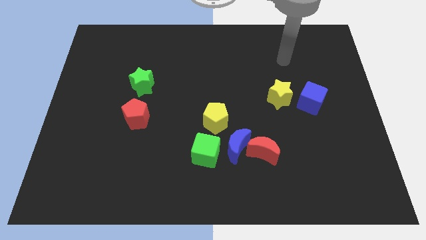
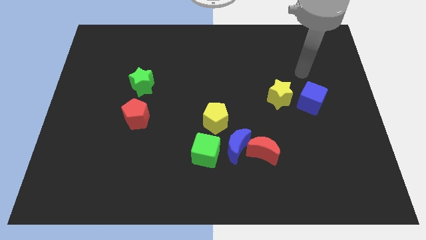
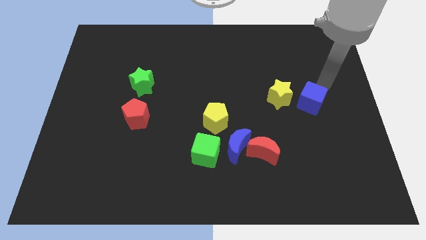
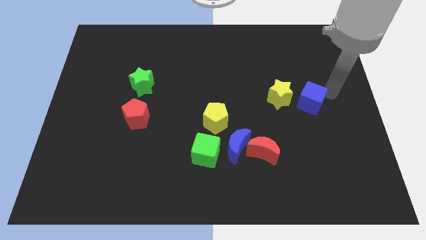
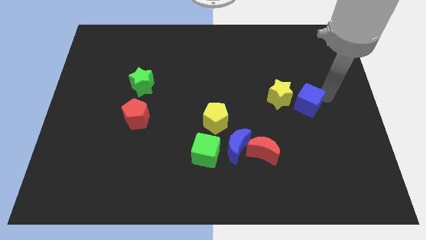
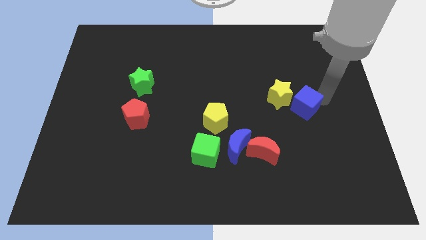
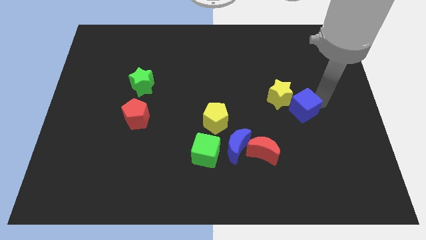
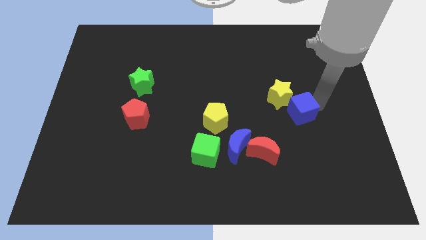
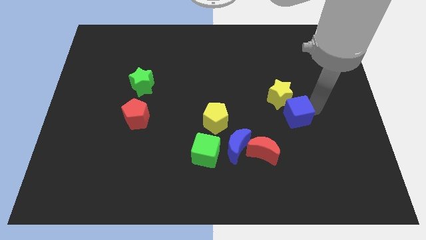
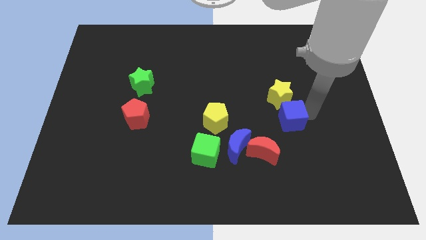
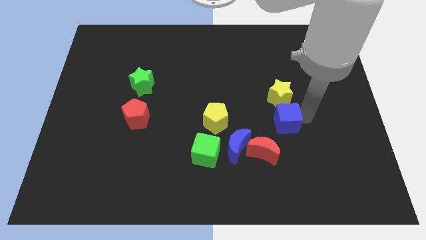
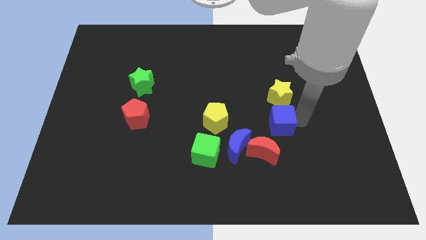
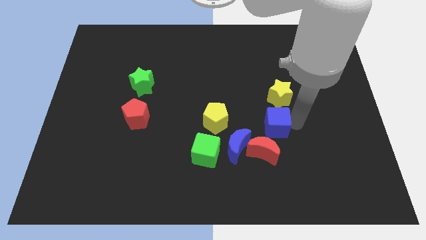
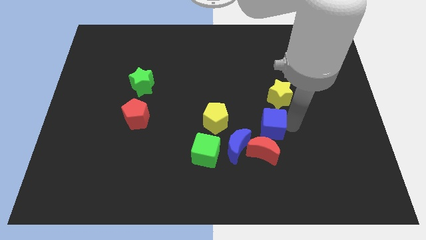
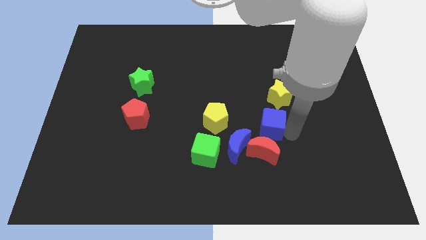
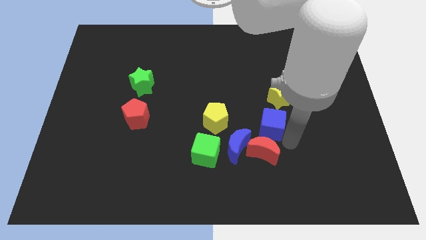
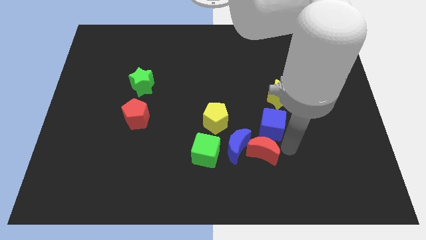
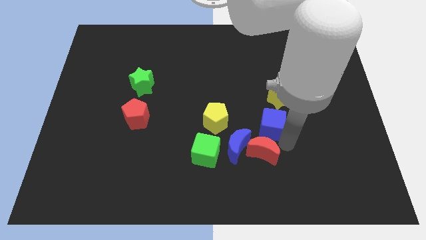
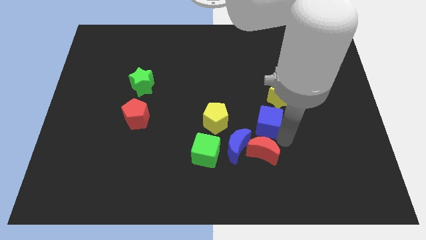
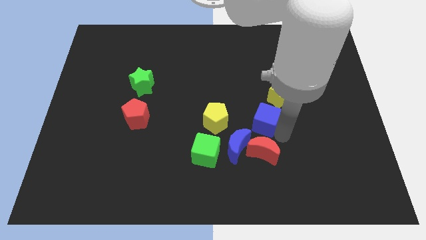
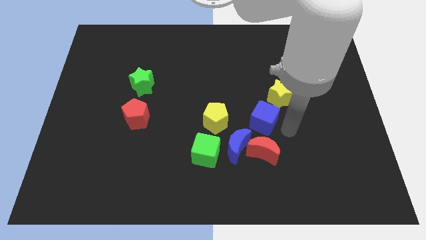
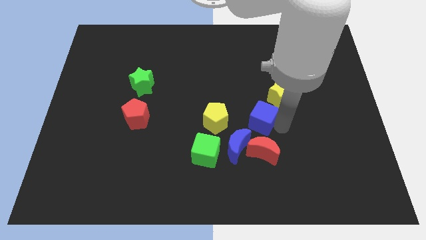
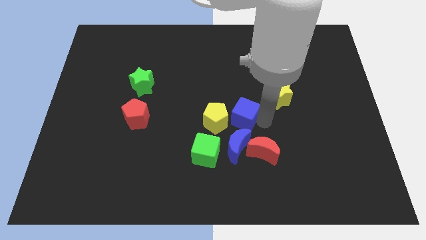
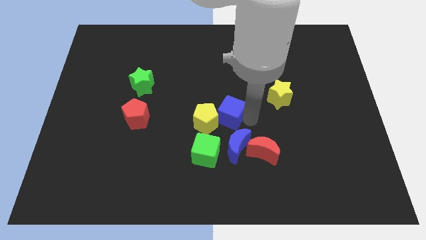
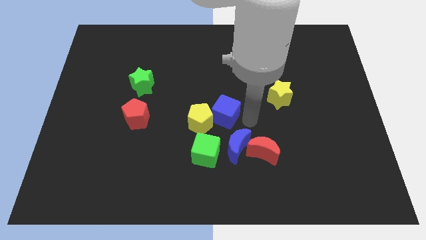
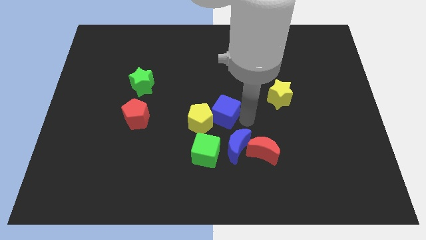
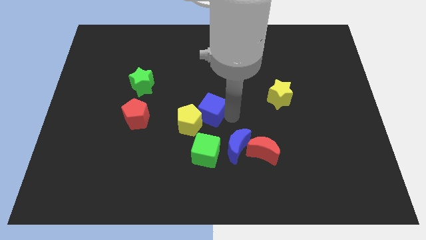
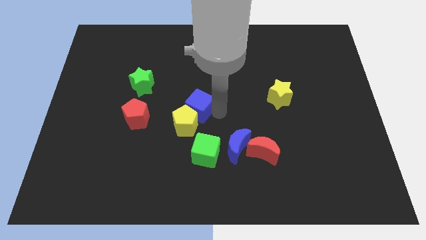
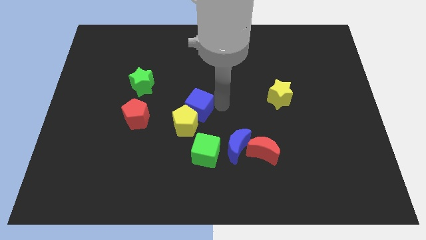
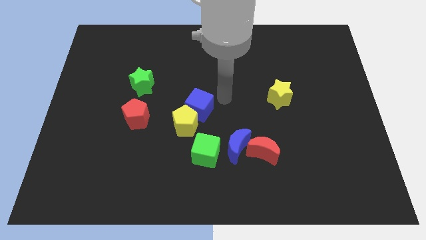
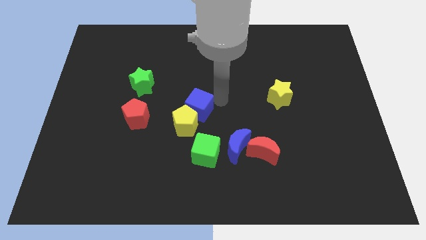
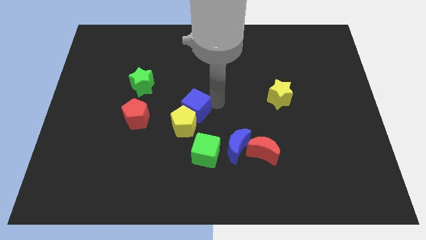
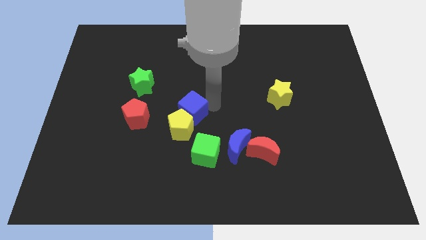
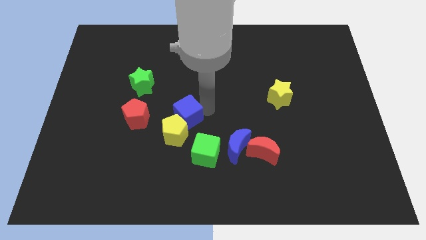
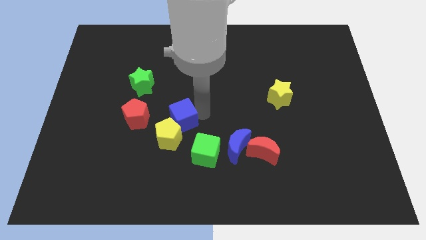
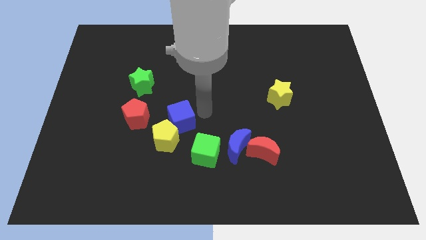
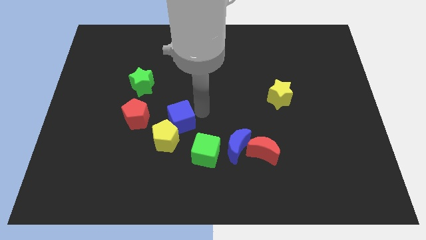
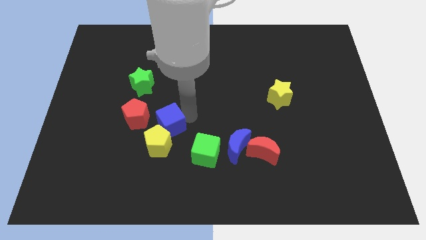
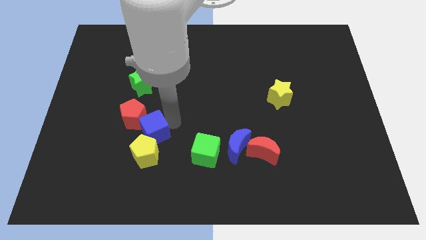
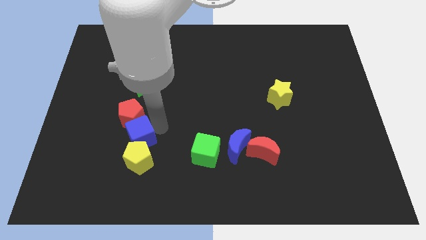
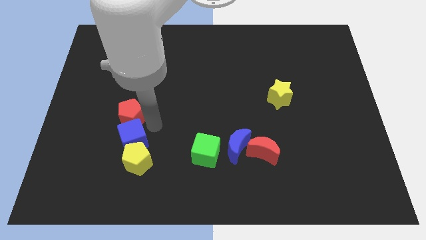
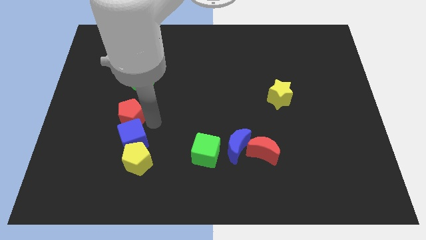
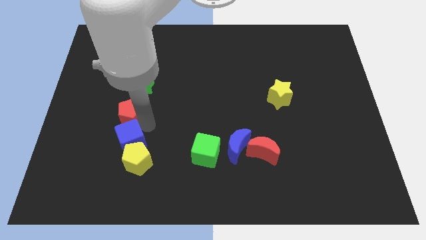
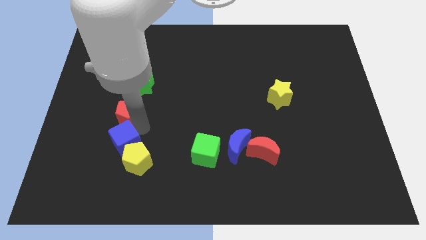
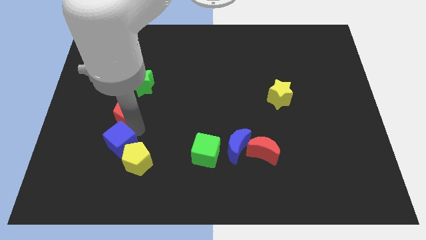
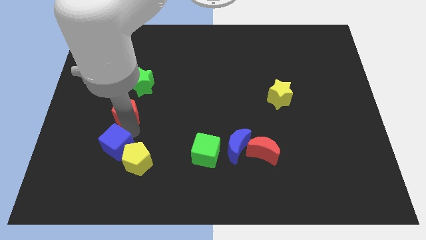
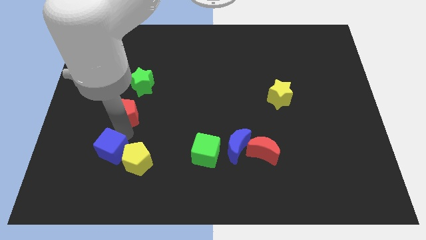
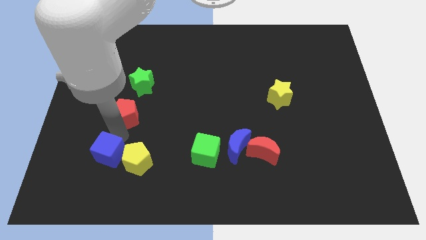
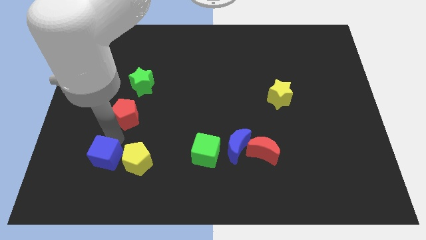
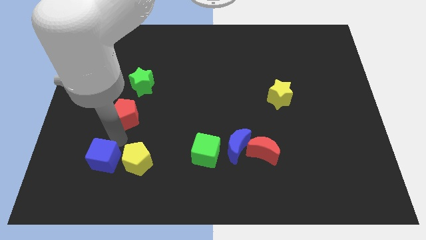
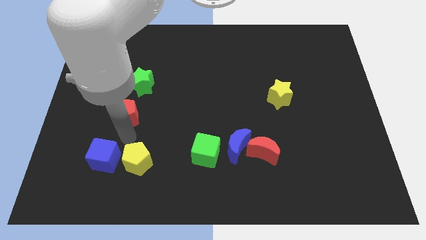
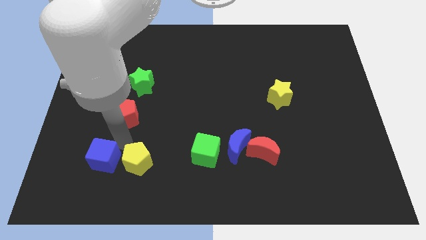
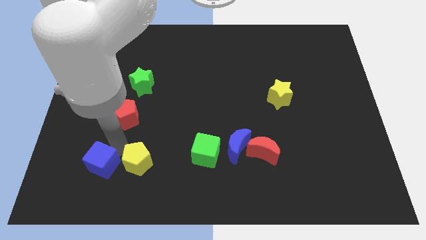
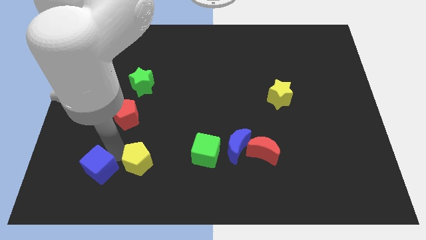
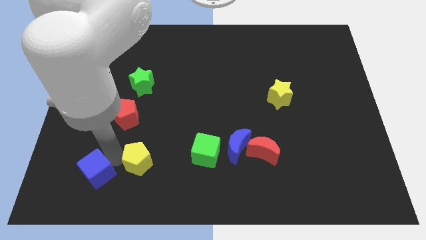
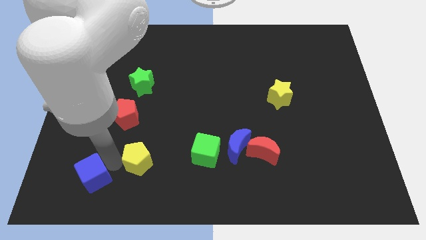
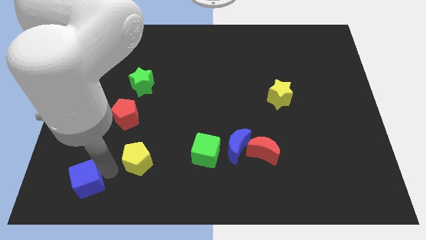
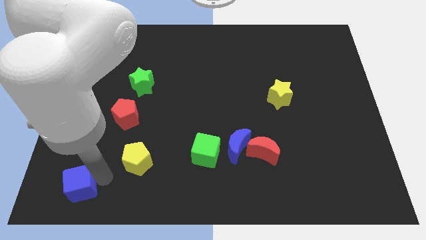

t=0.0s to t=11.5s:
slide the blue cube to the bottom left corner
